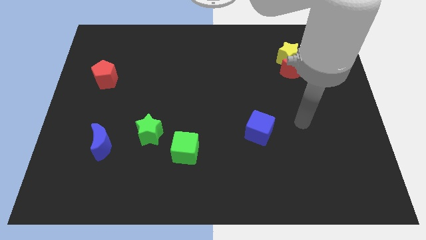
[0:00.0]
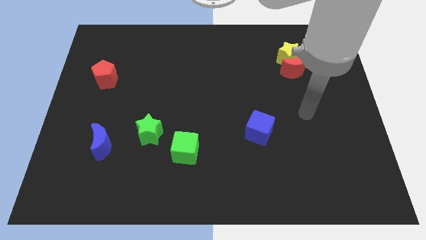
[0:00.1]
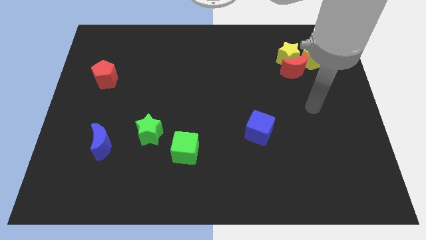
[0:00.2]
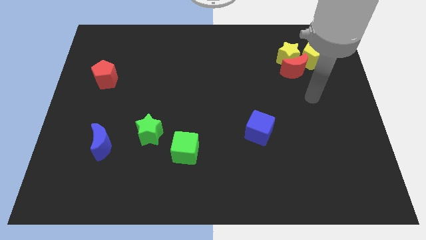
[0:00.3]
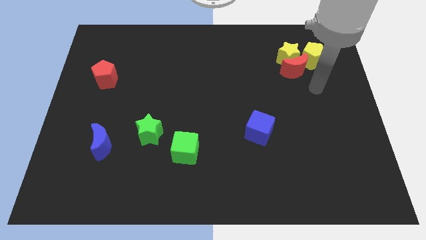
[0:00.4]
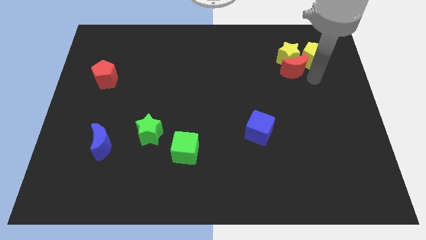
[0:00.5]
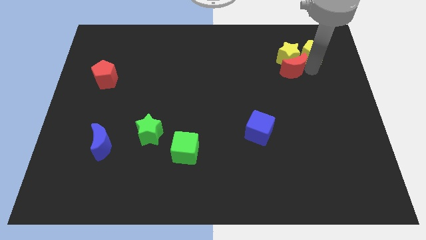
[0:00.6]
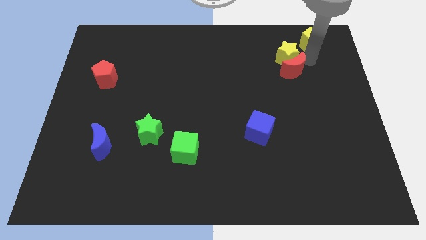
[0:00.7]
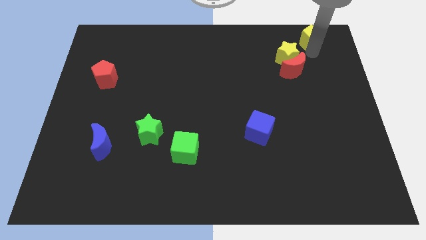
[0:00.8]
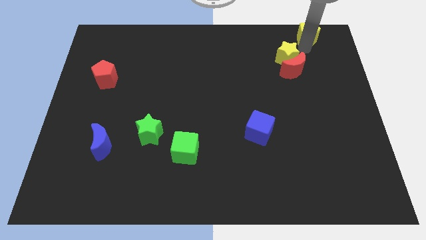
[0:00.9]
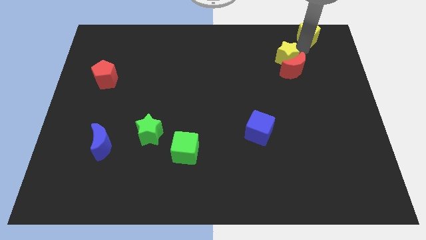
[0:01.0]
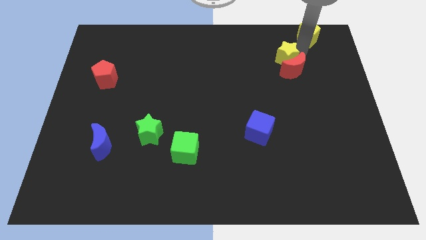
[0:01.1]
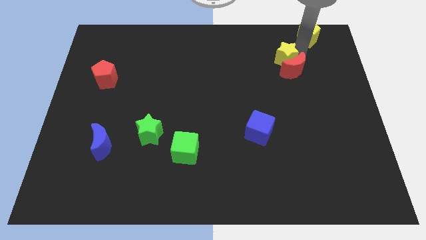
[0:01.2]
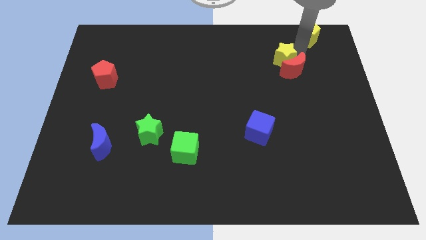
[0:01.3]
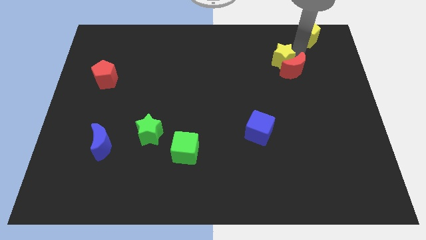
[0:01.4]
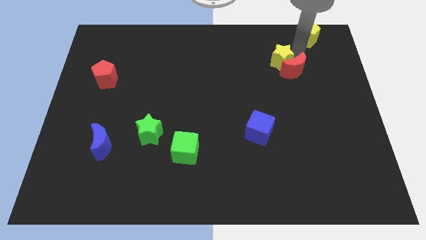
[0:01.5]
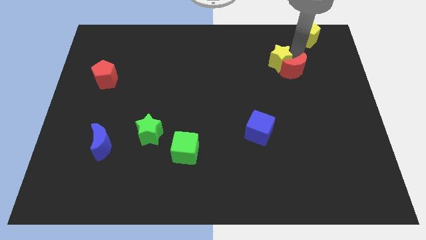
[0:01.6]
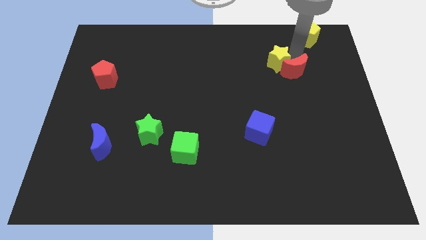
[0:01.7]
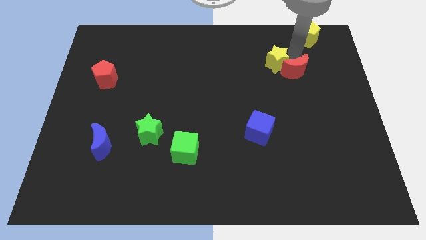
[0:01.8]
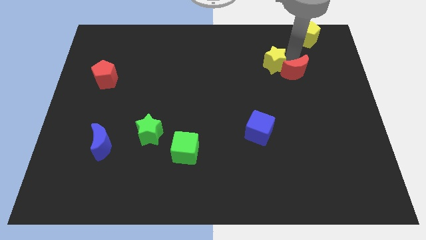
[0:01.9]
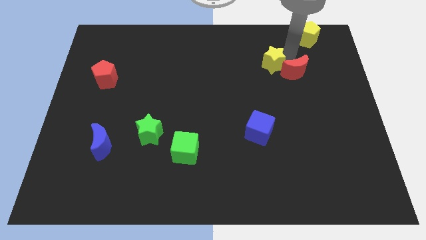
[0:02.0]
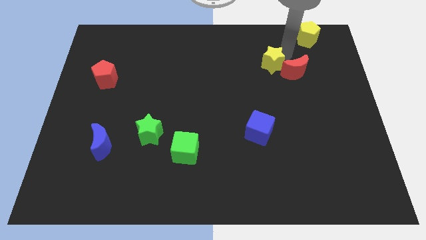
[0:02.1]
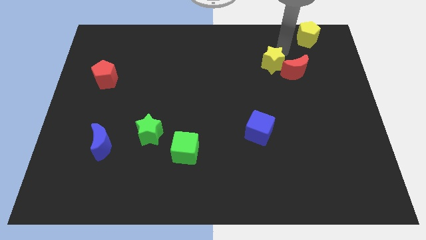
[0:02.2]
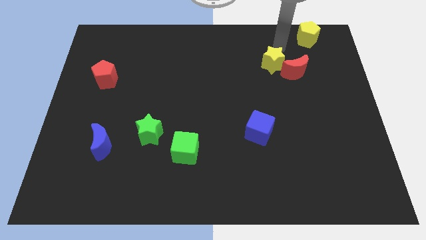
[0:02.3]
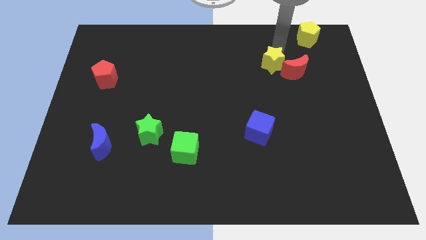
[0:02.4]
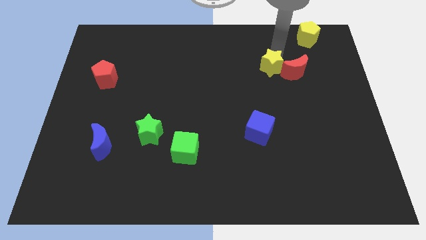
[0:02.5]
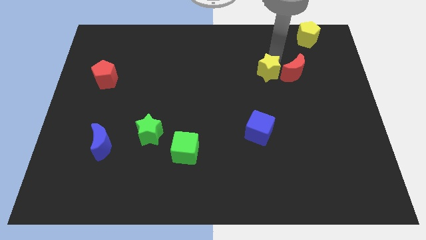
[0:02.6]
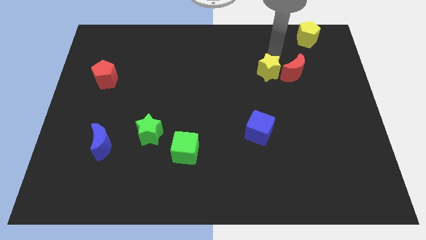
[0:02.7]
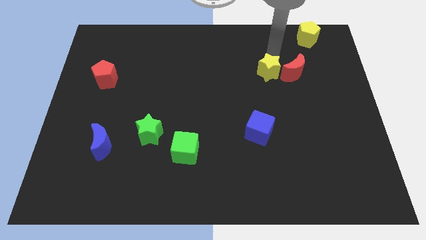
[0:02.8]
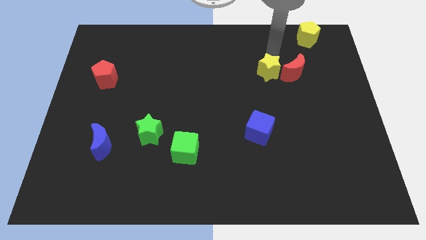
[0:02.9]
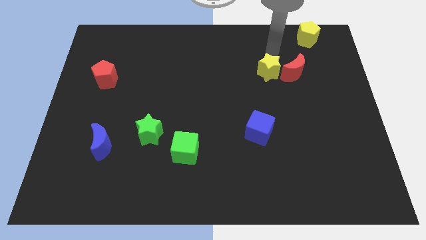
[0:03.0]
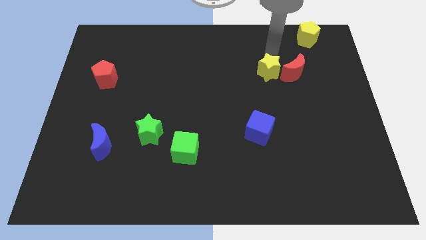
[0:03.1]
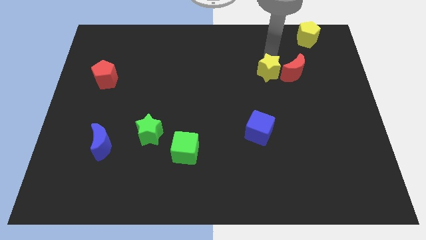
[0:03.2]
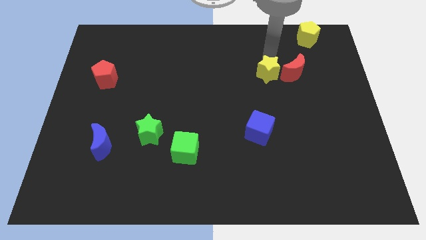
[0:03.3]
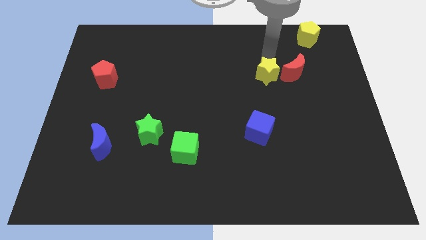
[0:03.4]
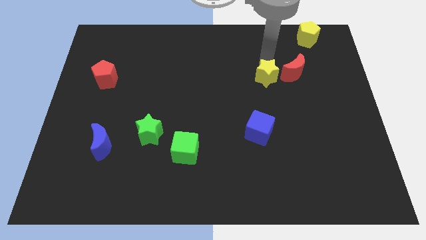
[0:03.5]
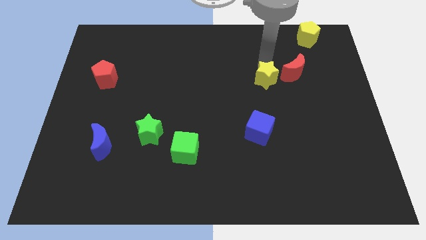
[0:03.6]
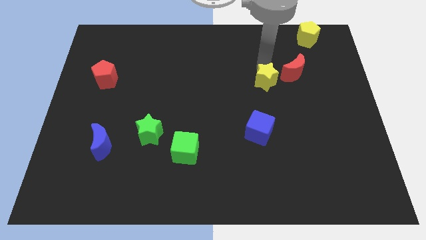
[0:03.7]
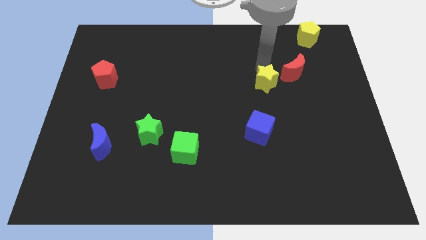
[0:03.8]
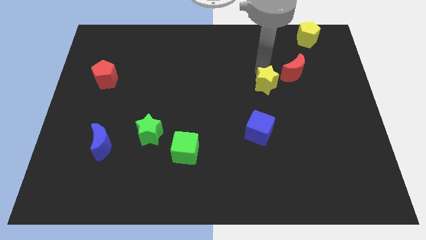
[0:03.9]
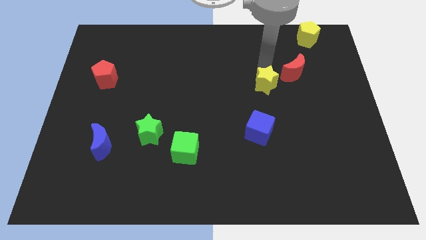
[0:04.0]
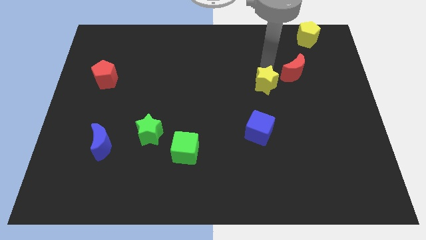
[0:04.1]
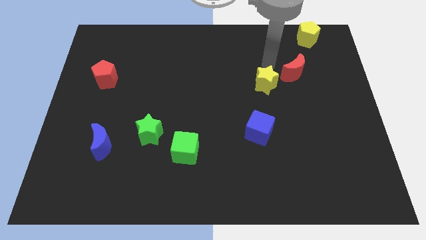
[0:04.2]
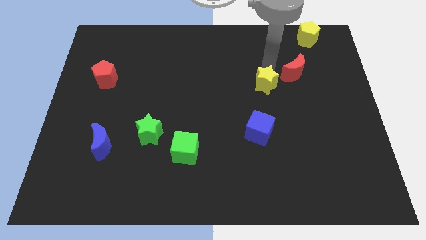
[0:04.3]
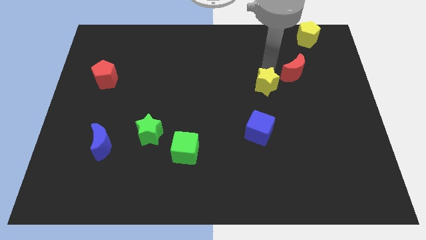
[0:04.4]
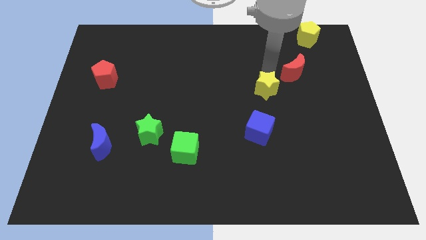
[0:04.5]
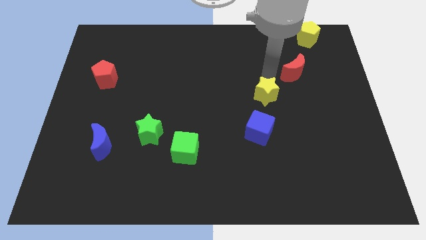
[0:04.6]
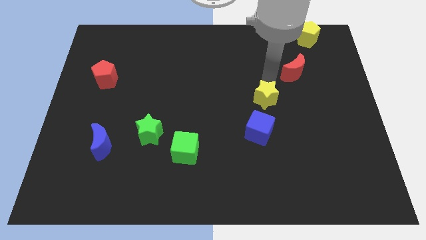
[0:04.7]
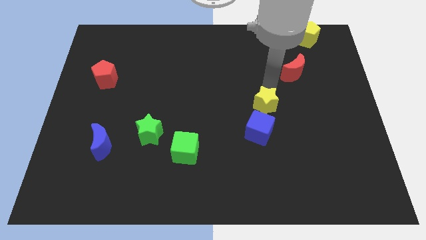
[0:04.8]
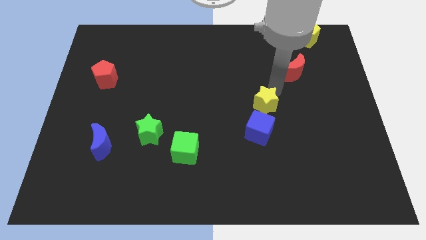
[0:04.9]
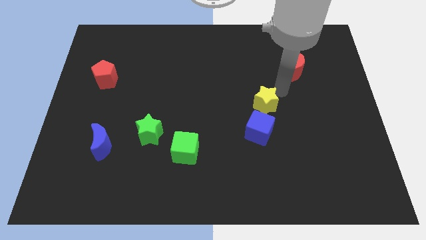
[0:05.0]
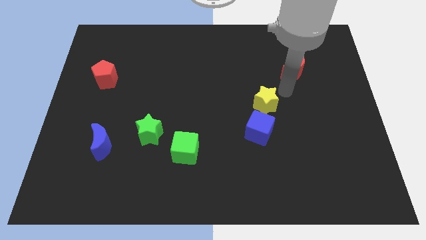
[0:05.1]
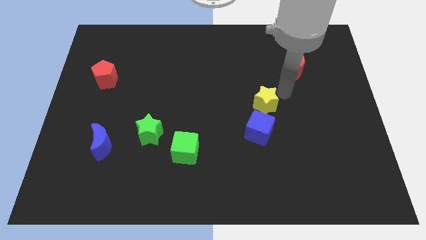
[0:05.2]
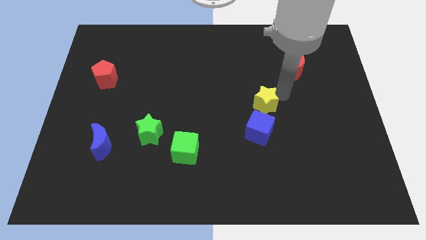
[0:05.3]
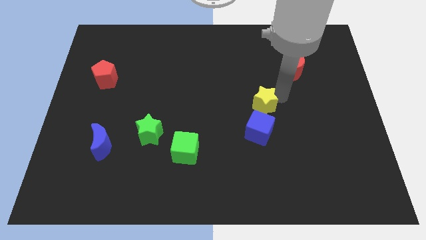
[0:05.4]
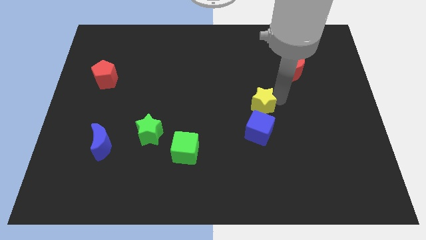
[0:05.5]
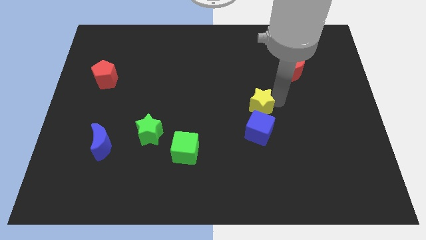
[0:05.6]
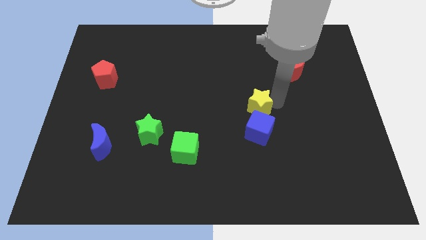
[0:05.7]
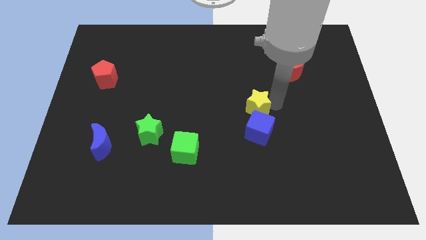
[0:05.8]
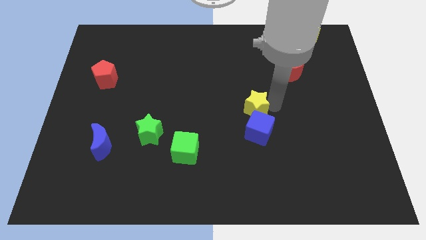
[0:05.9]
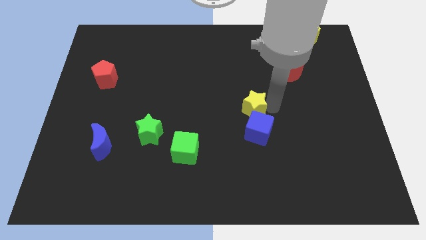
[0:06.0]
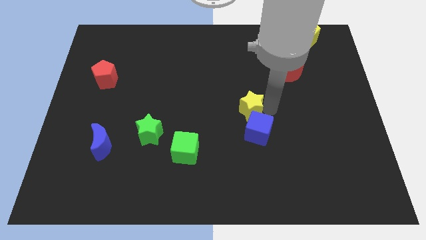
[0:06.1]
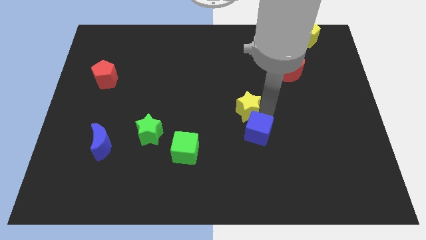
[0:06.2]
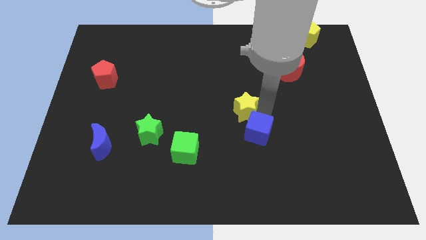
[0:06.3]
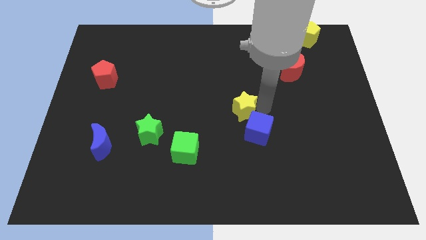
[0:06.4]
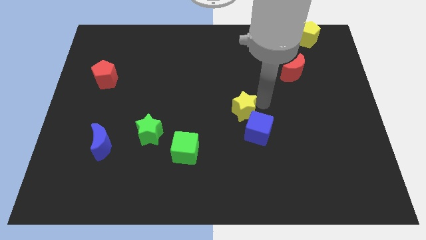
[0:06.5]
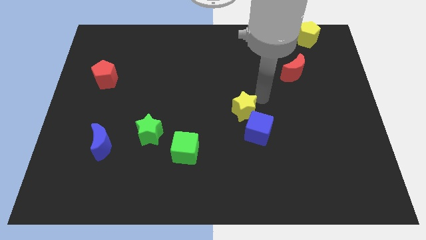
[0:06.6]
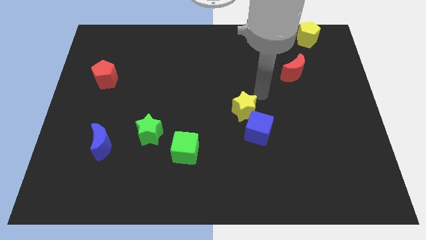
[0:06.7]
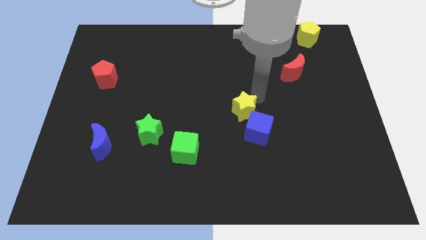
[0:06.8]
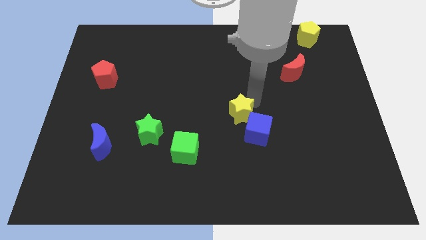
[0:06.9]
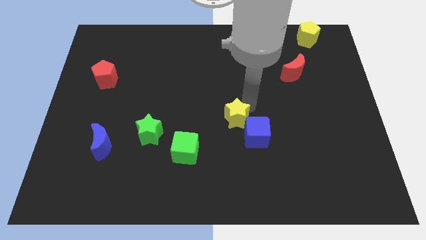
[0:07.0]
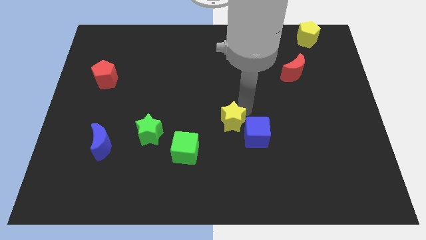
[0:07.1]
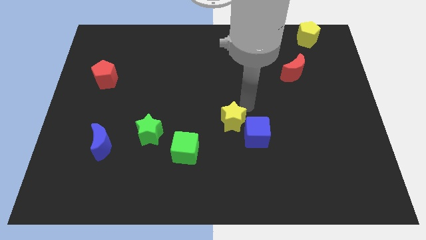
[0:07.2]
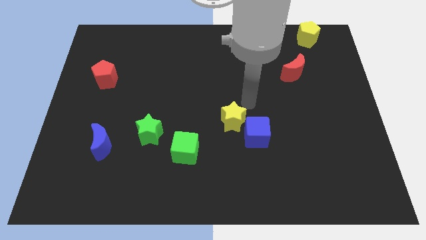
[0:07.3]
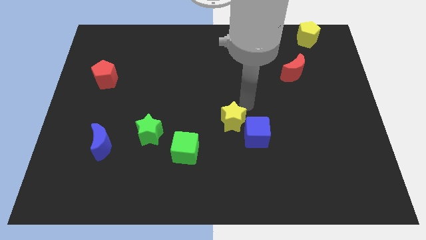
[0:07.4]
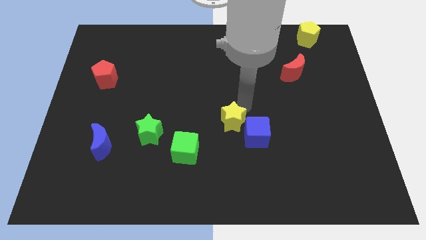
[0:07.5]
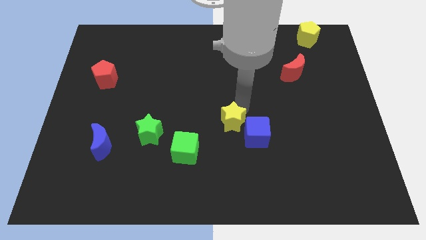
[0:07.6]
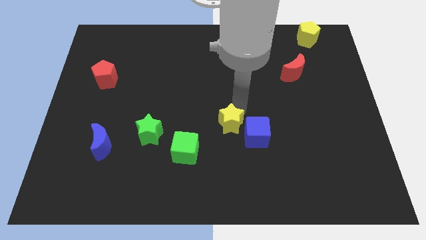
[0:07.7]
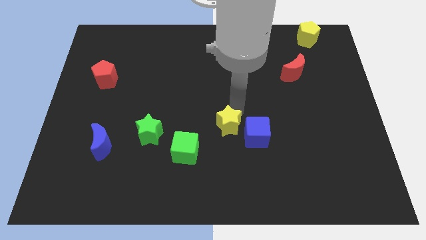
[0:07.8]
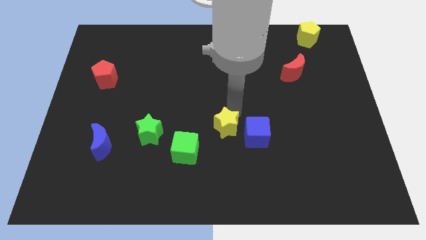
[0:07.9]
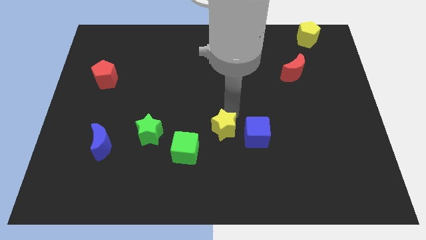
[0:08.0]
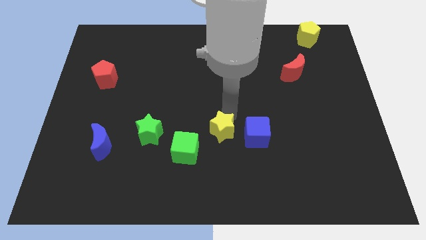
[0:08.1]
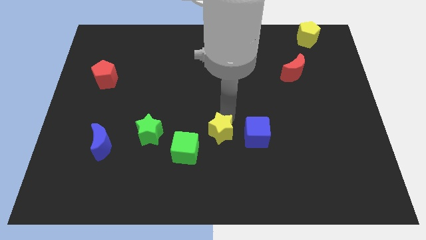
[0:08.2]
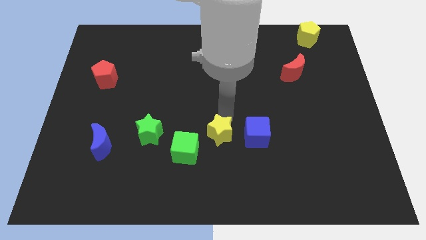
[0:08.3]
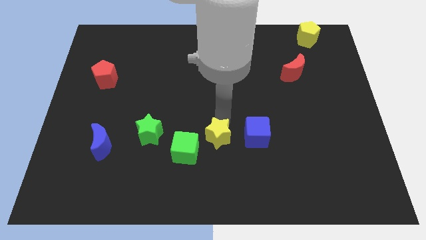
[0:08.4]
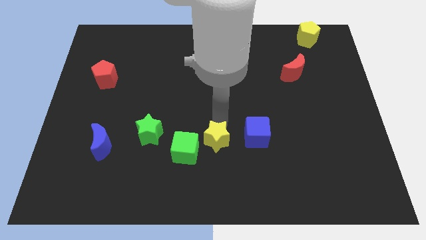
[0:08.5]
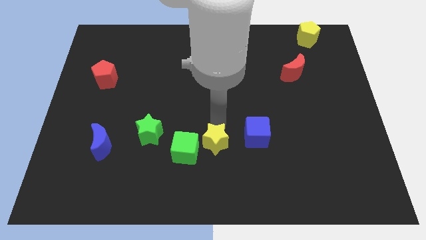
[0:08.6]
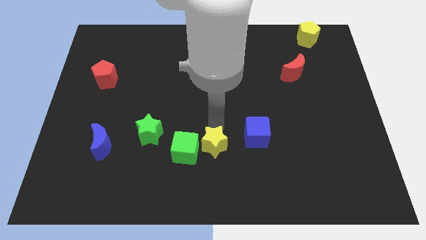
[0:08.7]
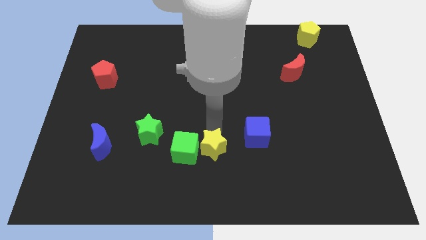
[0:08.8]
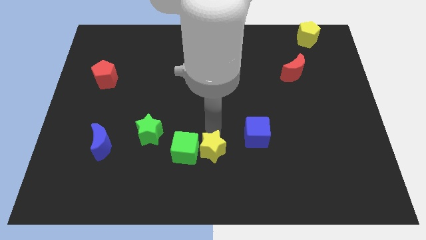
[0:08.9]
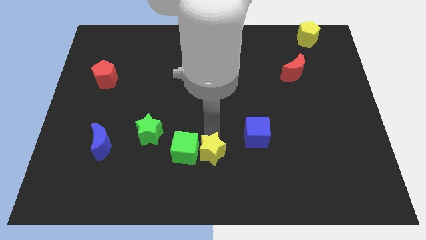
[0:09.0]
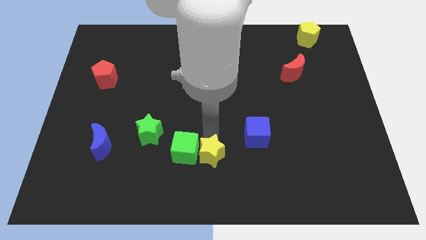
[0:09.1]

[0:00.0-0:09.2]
push the yellow star to the bottom side
